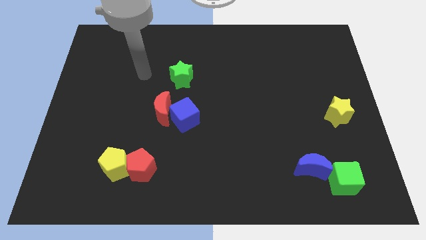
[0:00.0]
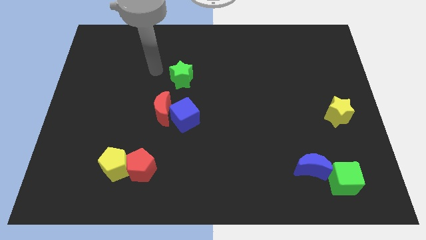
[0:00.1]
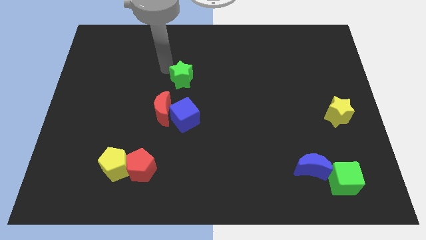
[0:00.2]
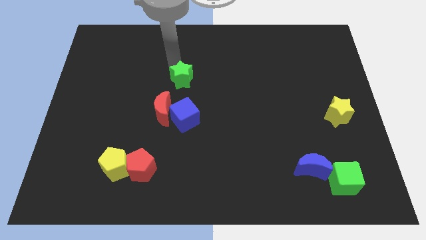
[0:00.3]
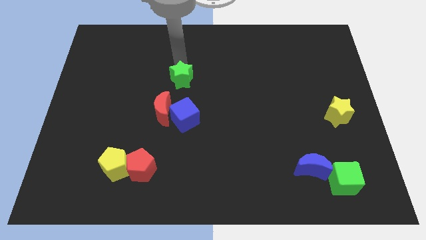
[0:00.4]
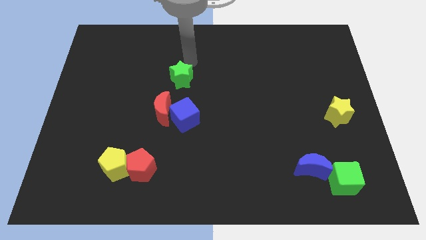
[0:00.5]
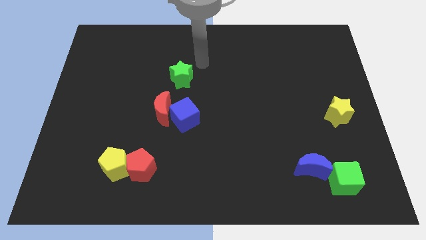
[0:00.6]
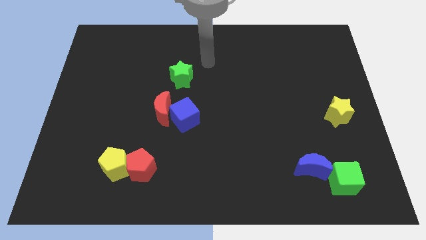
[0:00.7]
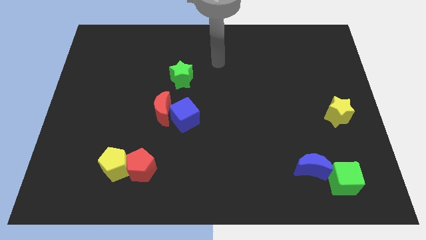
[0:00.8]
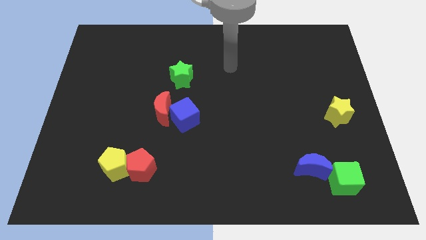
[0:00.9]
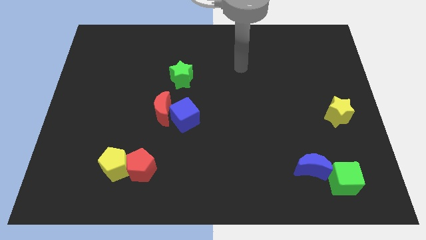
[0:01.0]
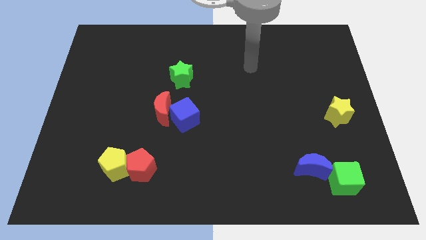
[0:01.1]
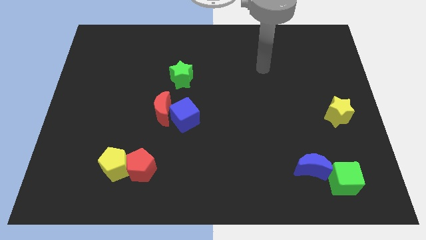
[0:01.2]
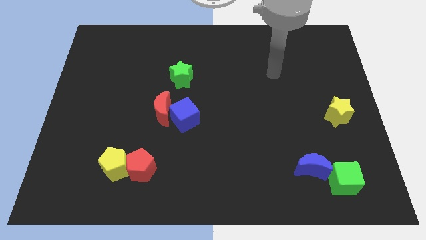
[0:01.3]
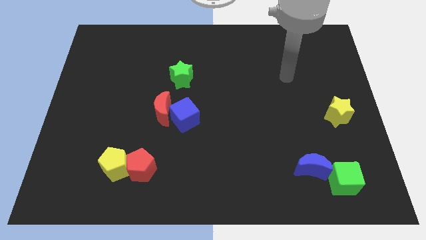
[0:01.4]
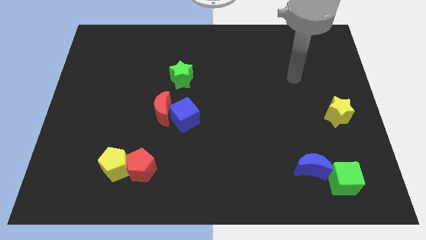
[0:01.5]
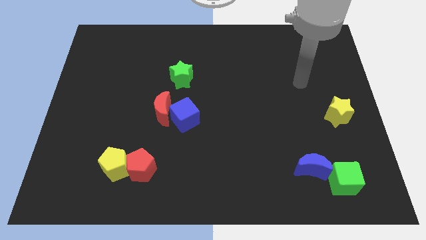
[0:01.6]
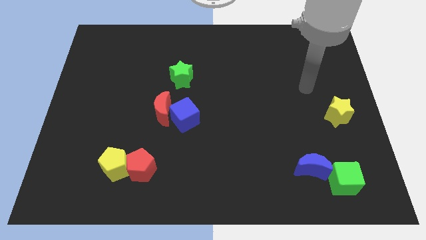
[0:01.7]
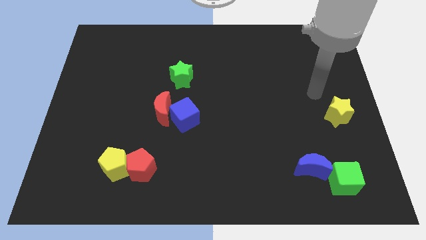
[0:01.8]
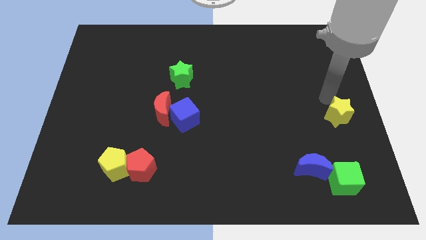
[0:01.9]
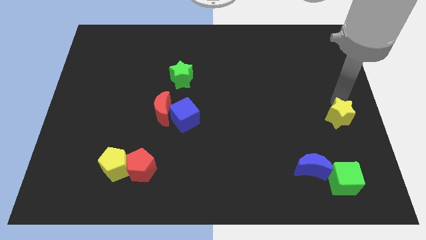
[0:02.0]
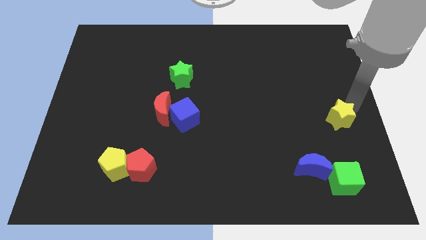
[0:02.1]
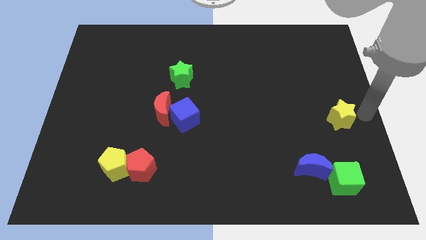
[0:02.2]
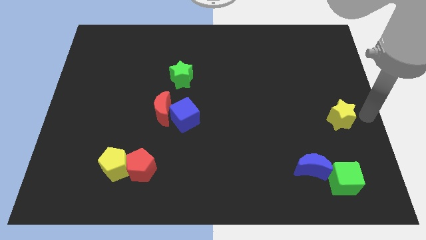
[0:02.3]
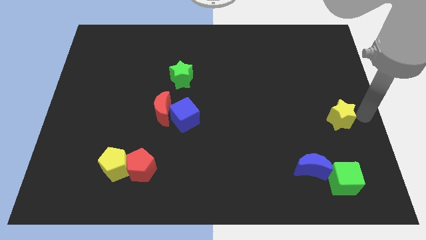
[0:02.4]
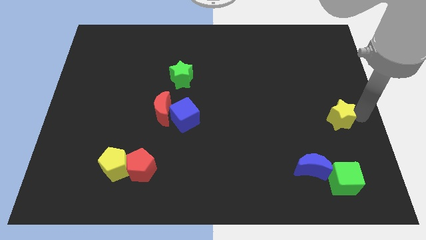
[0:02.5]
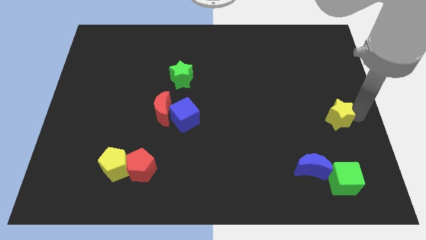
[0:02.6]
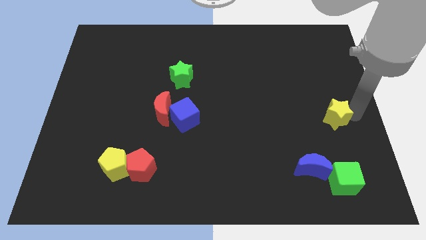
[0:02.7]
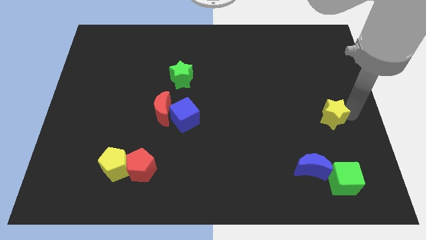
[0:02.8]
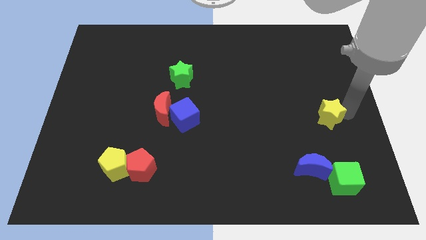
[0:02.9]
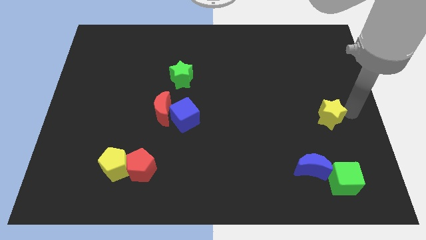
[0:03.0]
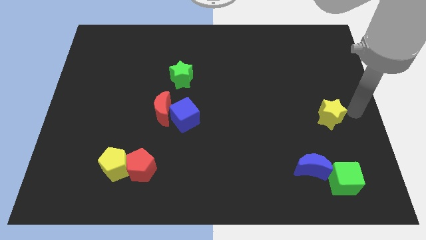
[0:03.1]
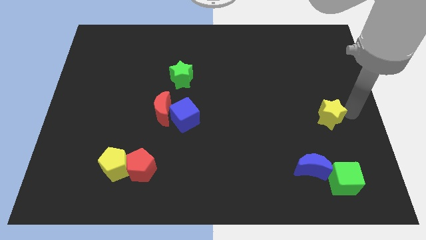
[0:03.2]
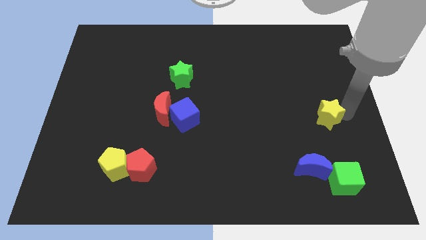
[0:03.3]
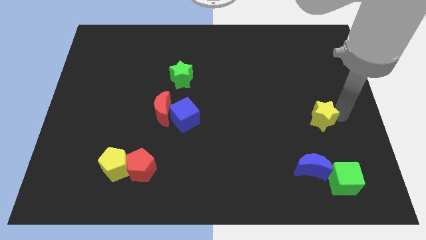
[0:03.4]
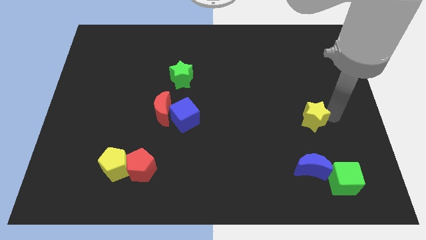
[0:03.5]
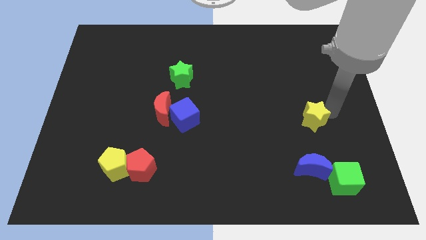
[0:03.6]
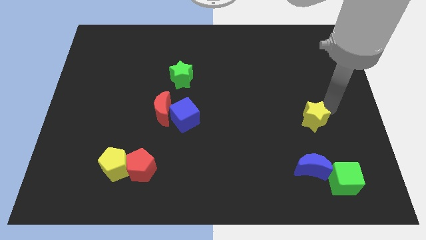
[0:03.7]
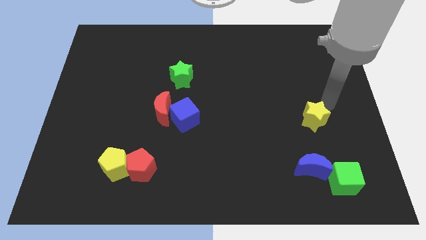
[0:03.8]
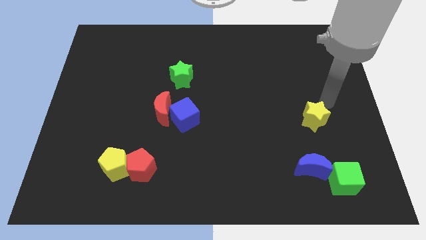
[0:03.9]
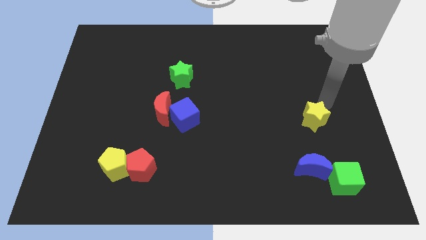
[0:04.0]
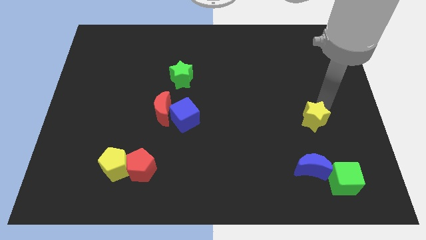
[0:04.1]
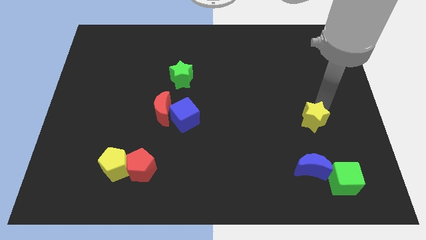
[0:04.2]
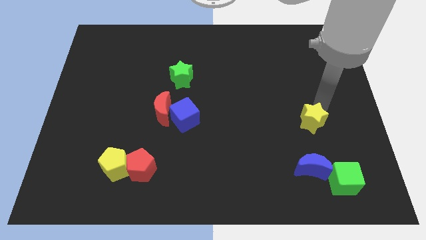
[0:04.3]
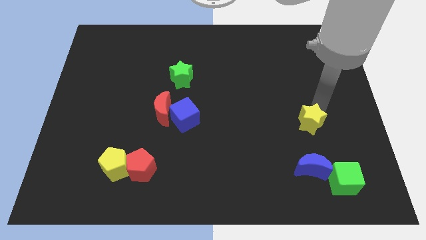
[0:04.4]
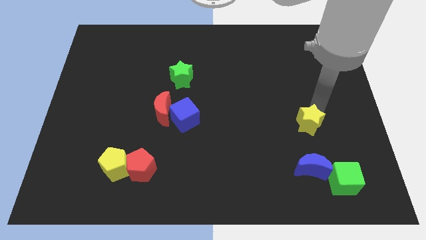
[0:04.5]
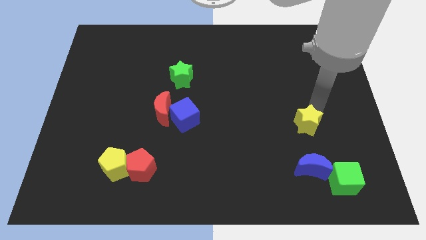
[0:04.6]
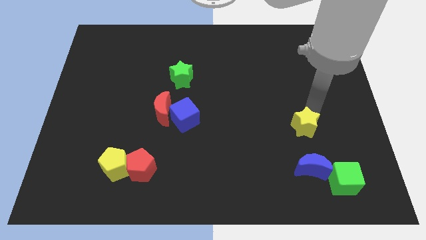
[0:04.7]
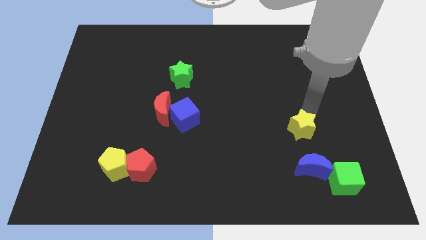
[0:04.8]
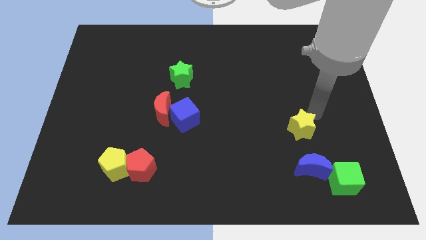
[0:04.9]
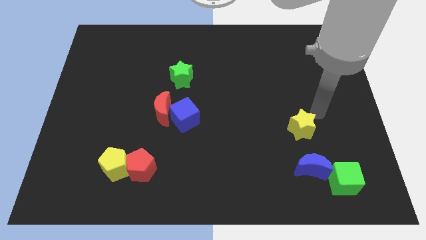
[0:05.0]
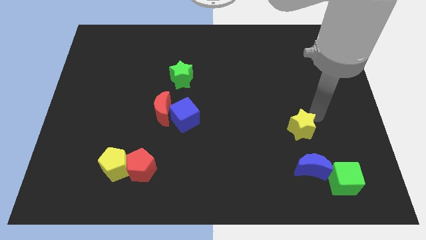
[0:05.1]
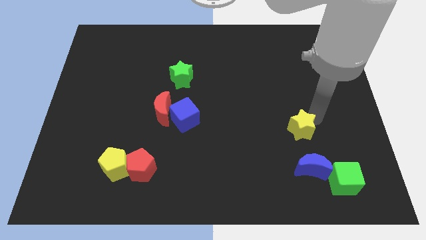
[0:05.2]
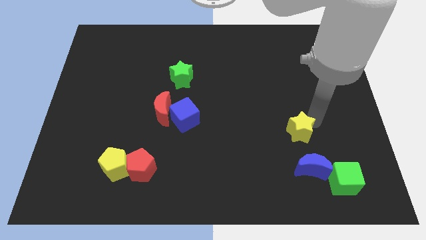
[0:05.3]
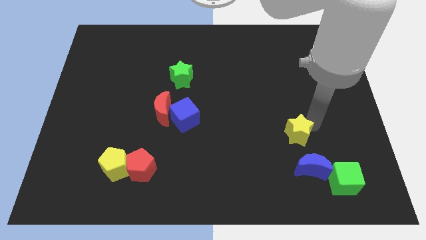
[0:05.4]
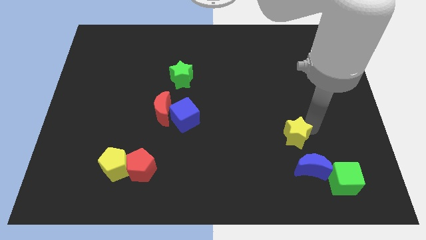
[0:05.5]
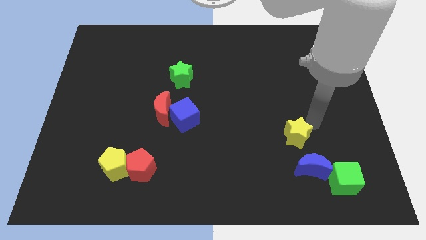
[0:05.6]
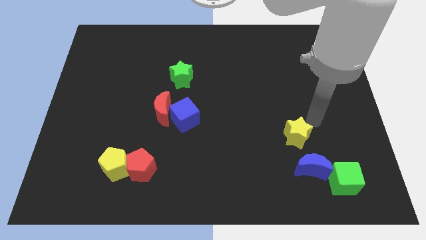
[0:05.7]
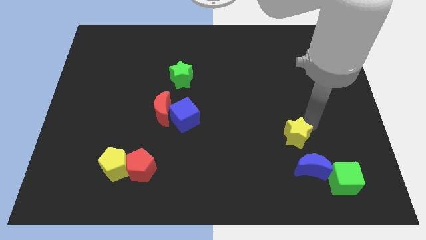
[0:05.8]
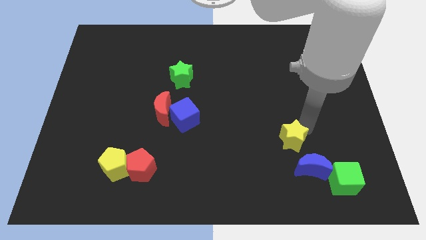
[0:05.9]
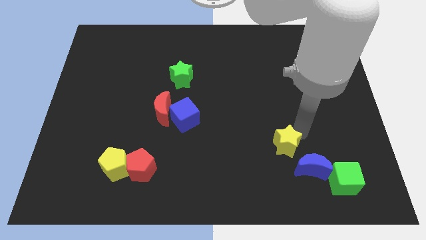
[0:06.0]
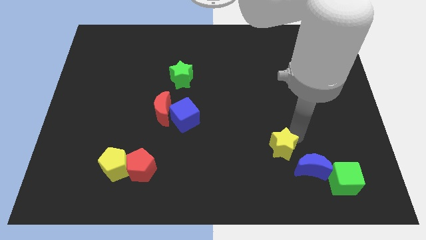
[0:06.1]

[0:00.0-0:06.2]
move the yellow star to the left side of the blue moon

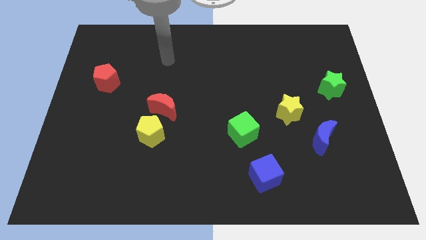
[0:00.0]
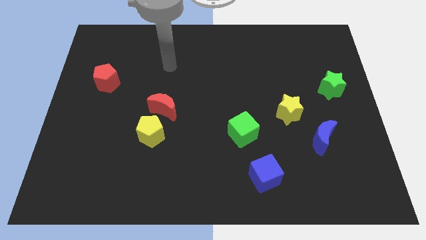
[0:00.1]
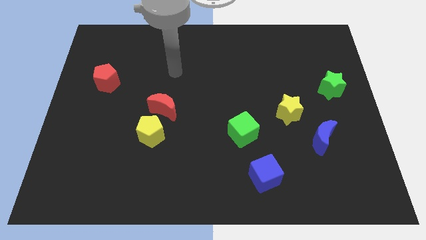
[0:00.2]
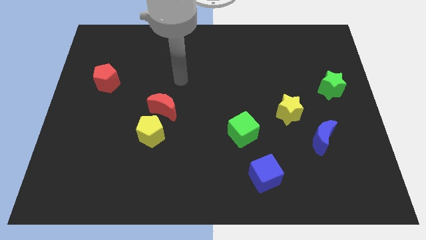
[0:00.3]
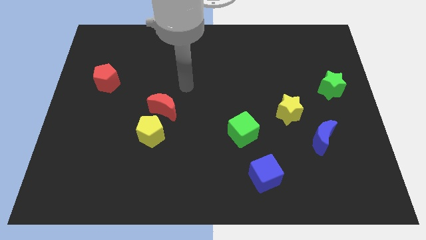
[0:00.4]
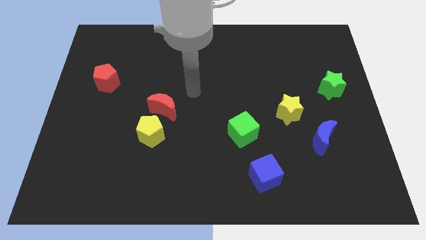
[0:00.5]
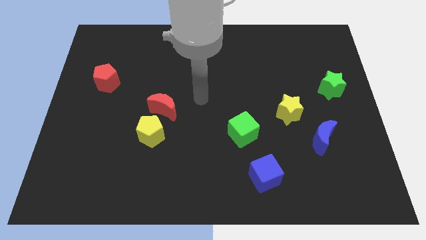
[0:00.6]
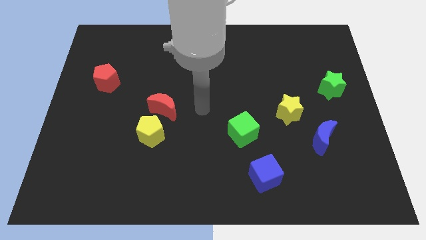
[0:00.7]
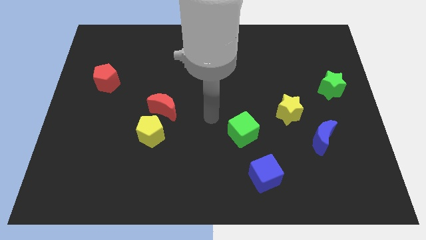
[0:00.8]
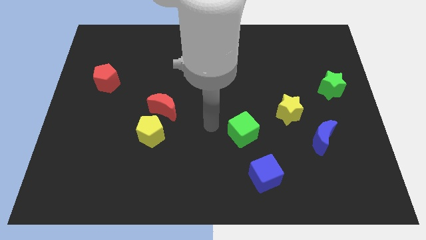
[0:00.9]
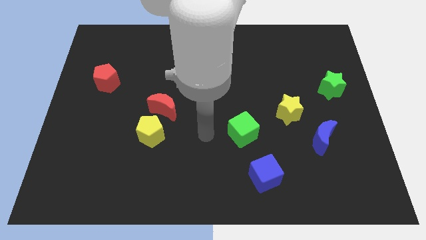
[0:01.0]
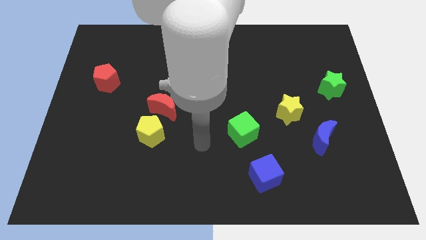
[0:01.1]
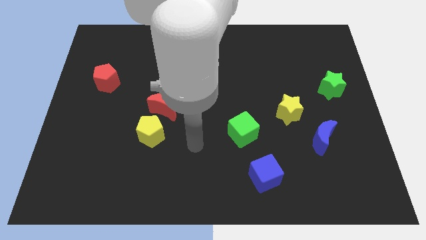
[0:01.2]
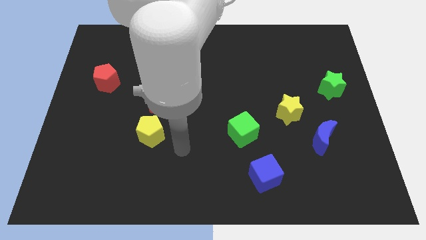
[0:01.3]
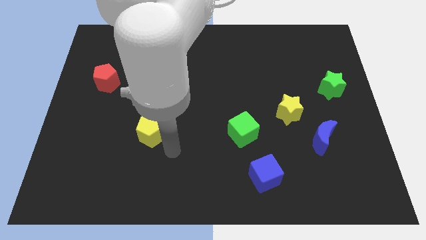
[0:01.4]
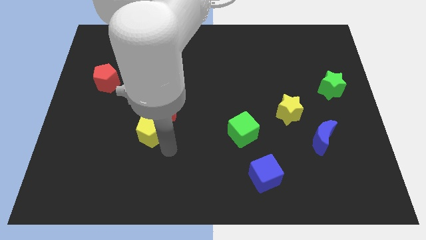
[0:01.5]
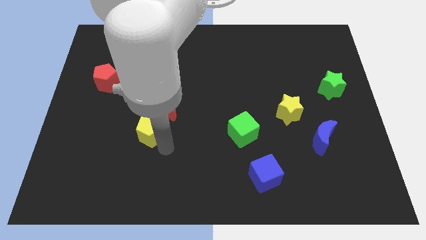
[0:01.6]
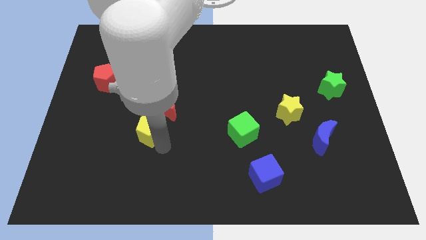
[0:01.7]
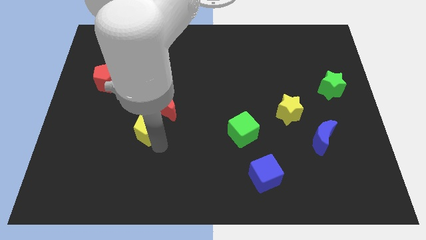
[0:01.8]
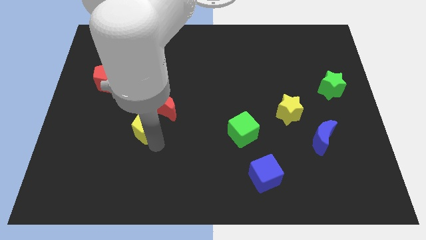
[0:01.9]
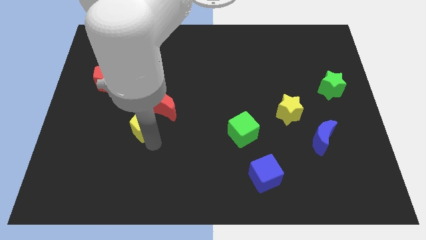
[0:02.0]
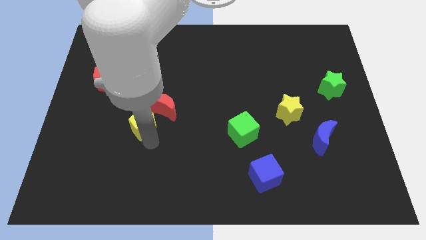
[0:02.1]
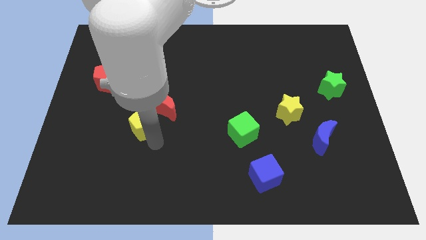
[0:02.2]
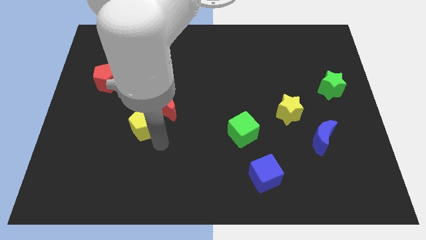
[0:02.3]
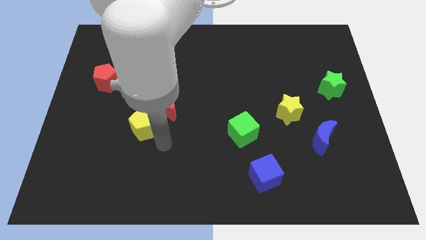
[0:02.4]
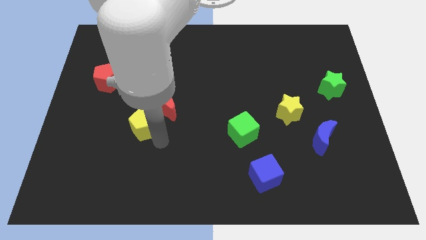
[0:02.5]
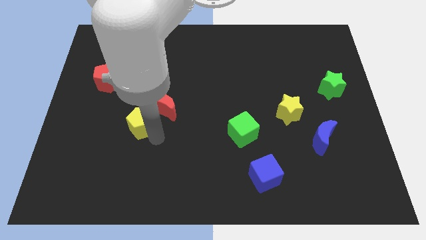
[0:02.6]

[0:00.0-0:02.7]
push the yellow pentagon to the left of the red moon
